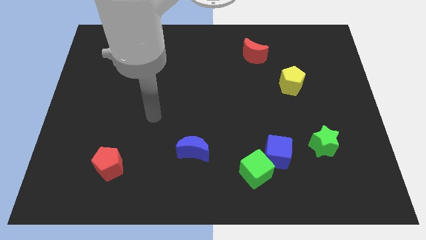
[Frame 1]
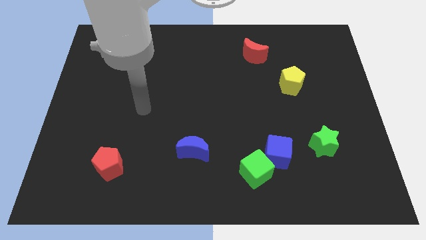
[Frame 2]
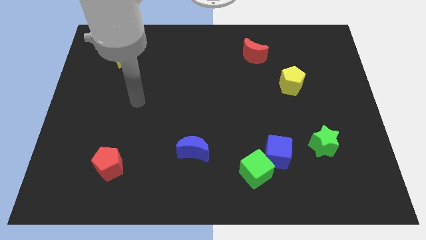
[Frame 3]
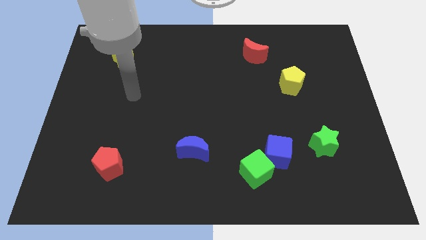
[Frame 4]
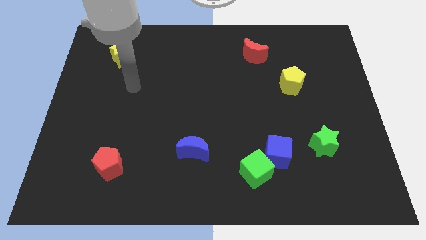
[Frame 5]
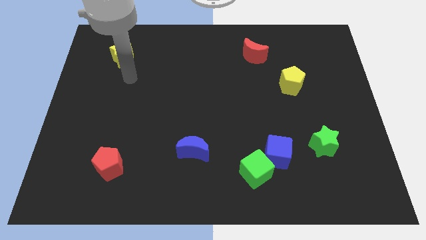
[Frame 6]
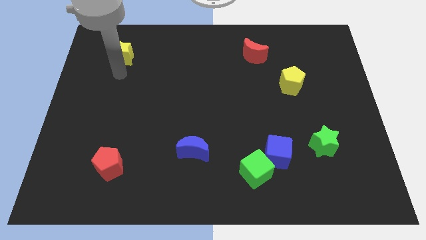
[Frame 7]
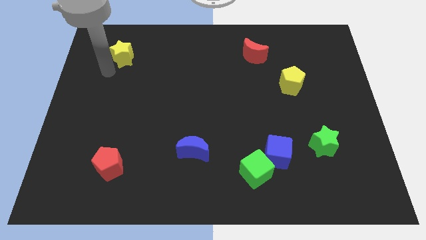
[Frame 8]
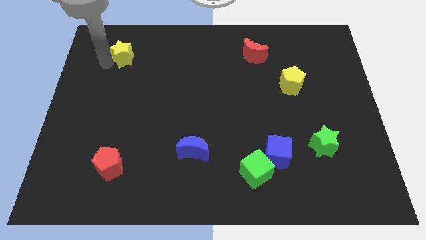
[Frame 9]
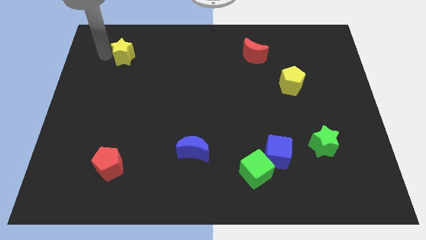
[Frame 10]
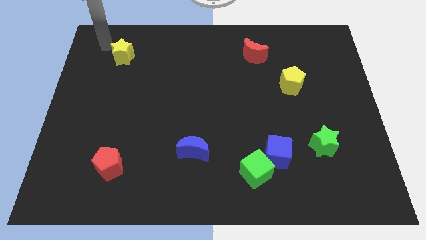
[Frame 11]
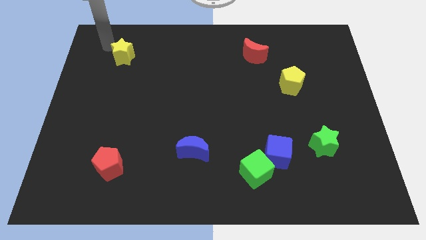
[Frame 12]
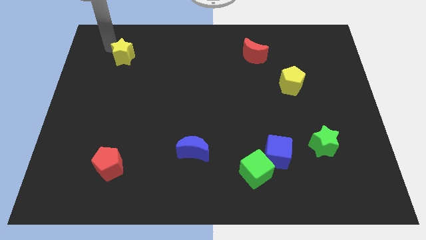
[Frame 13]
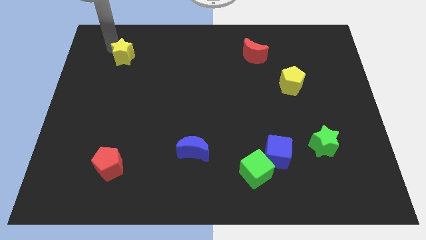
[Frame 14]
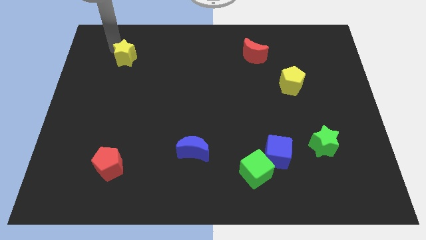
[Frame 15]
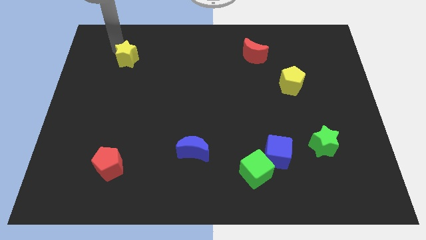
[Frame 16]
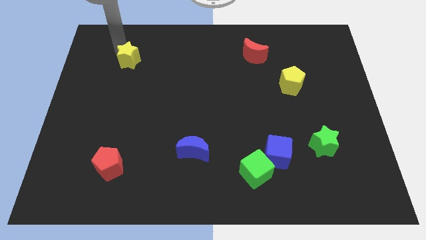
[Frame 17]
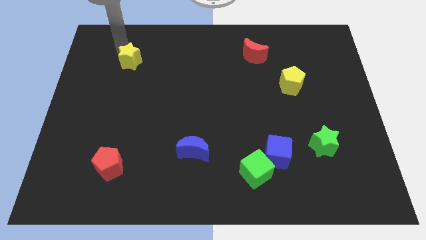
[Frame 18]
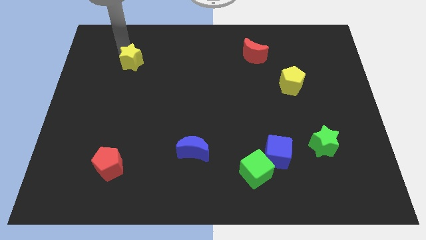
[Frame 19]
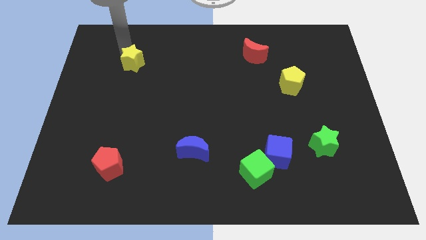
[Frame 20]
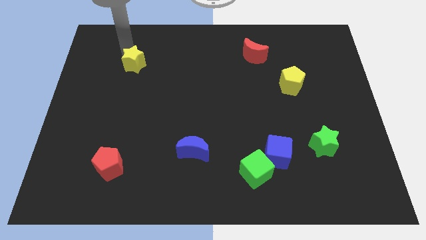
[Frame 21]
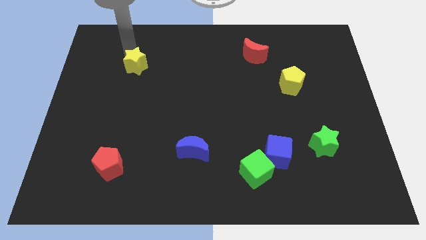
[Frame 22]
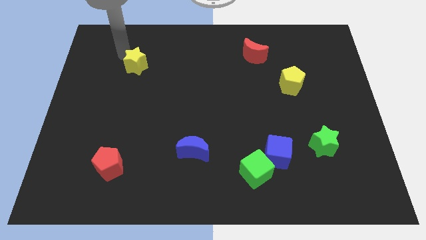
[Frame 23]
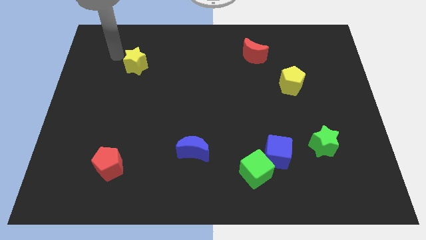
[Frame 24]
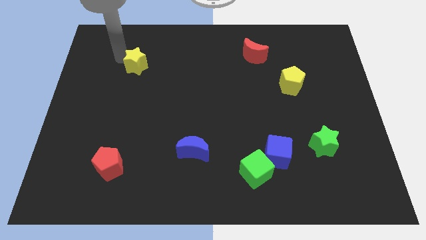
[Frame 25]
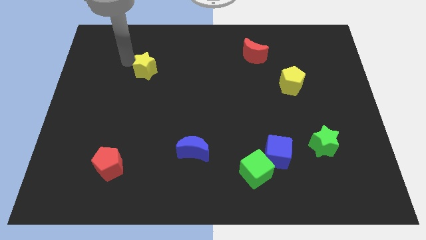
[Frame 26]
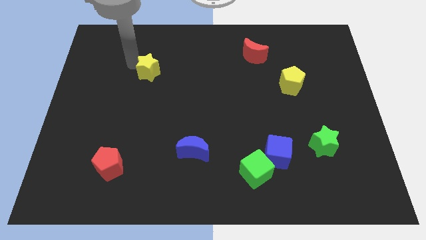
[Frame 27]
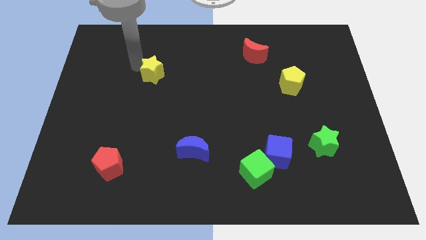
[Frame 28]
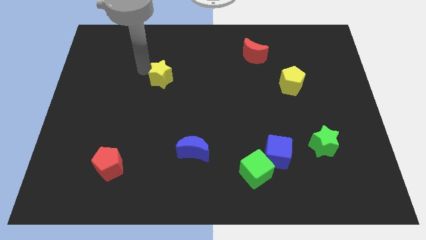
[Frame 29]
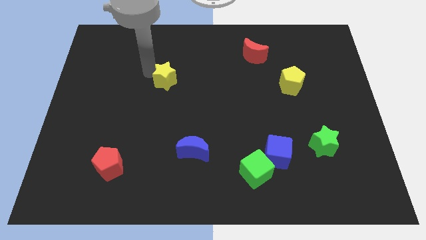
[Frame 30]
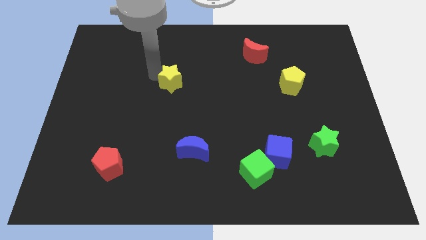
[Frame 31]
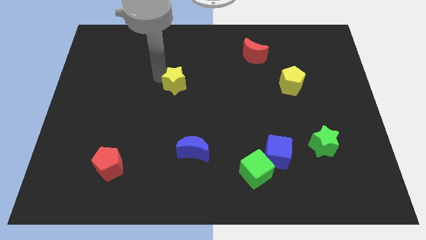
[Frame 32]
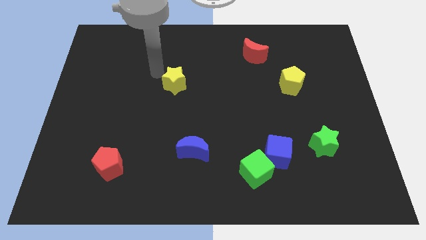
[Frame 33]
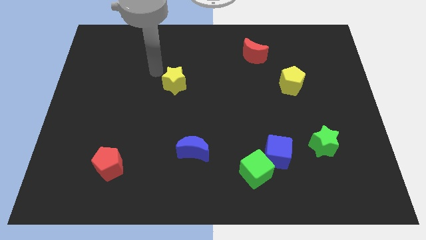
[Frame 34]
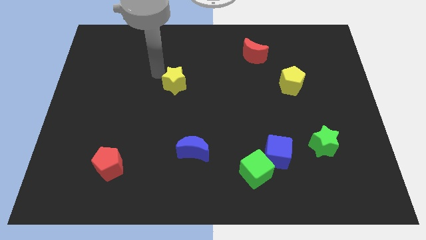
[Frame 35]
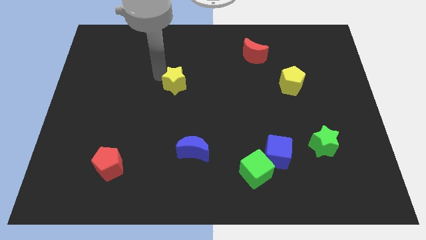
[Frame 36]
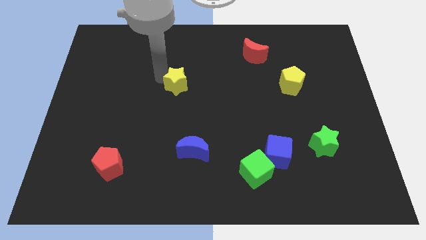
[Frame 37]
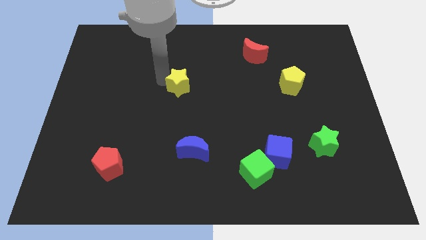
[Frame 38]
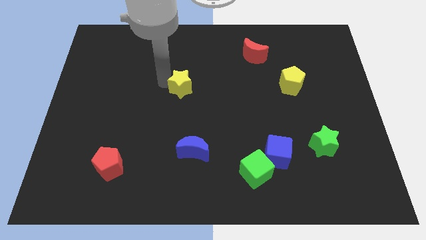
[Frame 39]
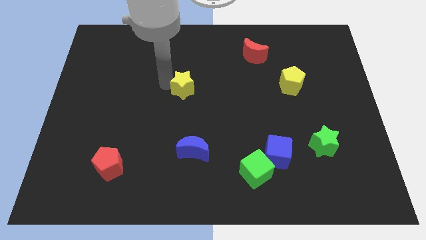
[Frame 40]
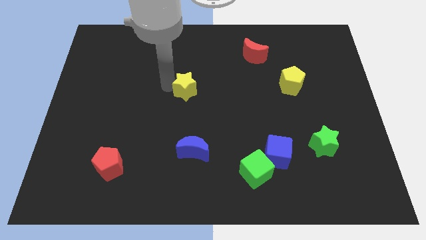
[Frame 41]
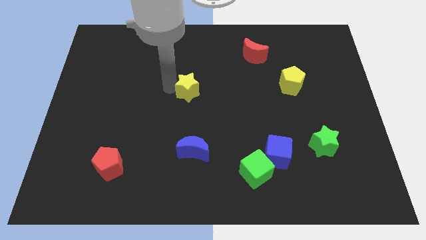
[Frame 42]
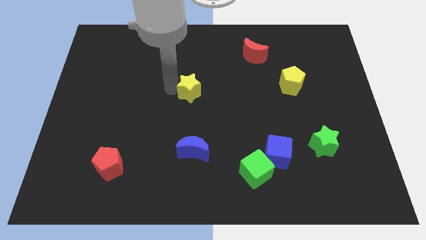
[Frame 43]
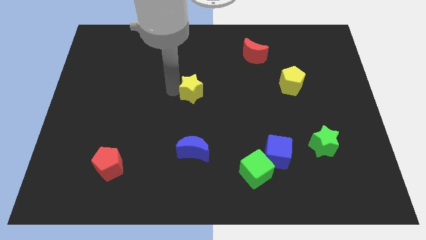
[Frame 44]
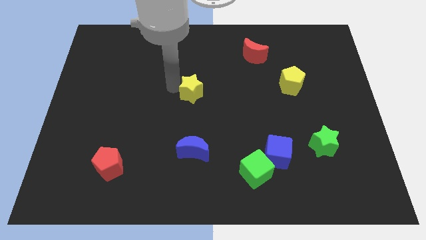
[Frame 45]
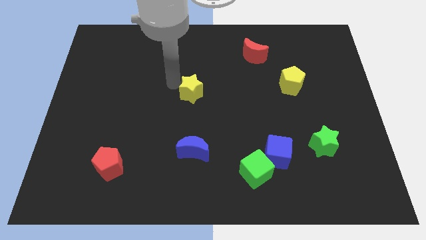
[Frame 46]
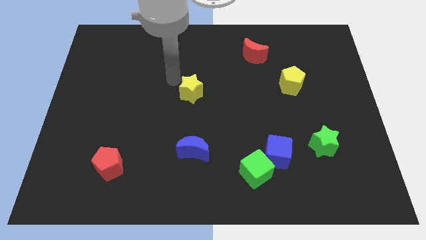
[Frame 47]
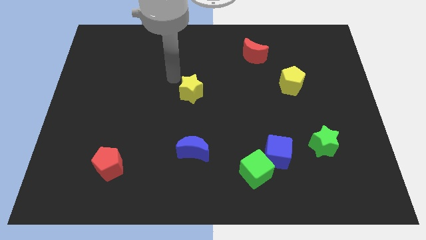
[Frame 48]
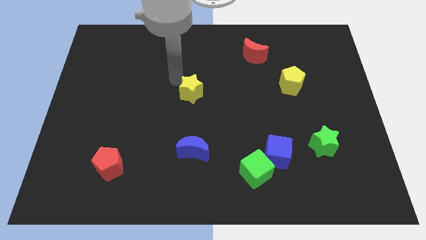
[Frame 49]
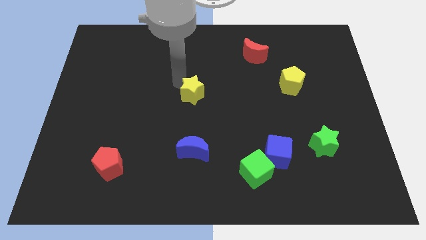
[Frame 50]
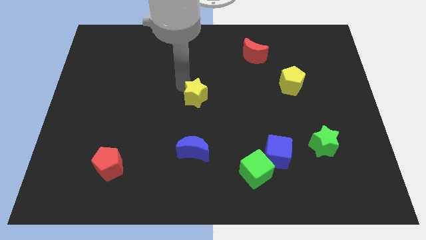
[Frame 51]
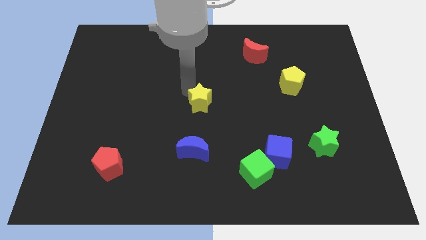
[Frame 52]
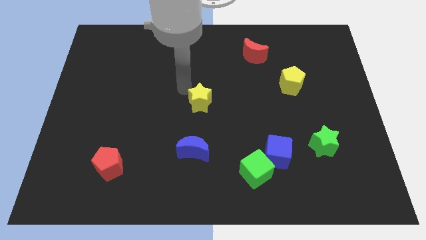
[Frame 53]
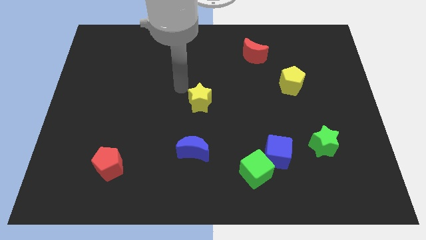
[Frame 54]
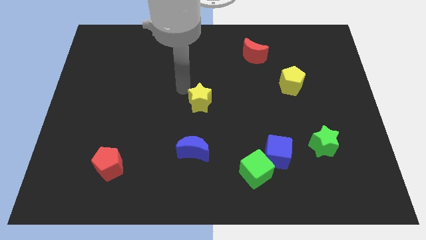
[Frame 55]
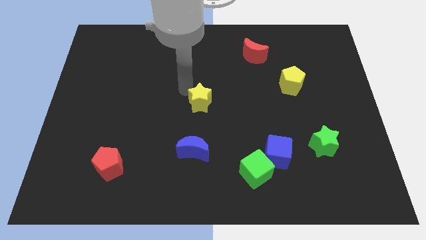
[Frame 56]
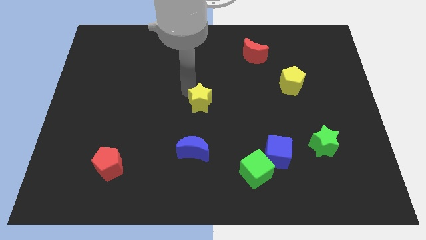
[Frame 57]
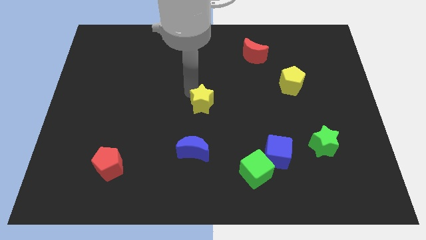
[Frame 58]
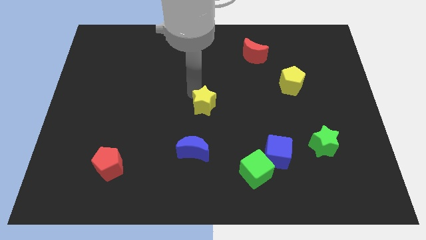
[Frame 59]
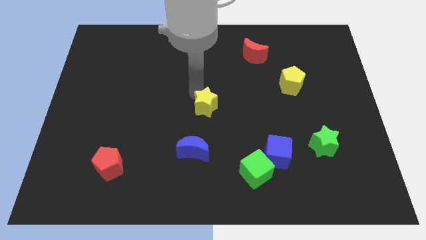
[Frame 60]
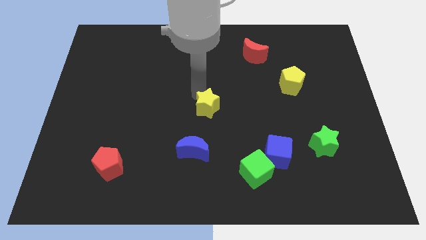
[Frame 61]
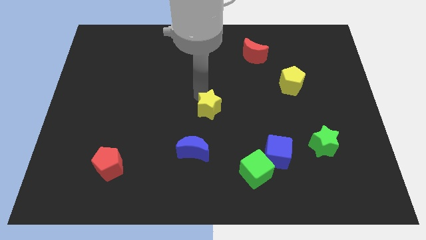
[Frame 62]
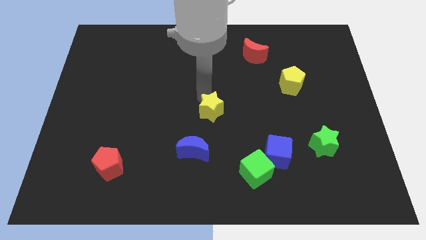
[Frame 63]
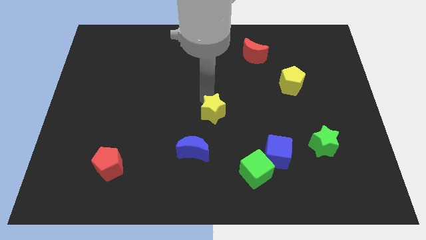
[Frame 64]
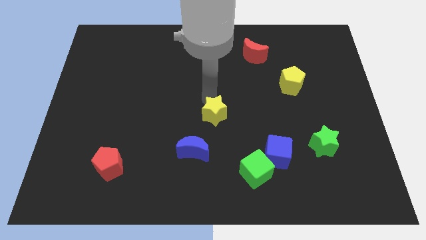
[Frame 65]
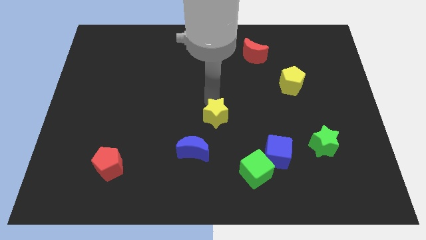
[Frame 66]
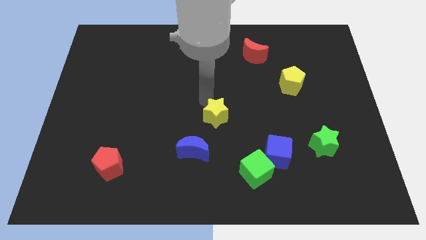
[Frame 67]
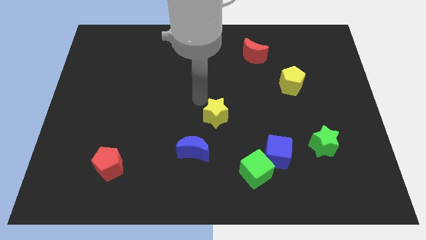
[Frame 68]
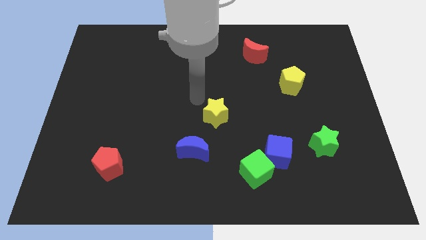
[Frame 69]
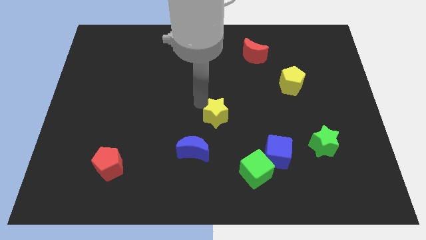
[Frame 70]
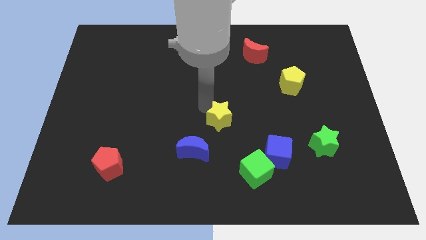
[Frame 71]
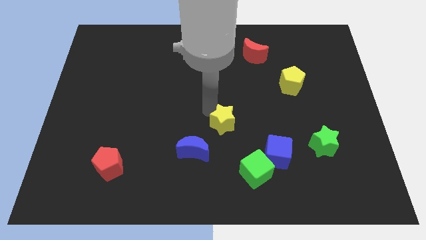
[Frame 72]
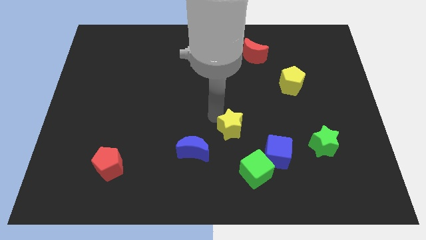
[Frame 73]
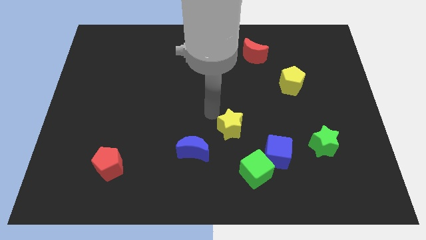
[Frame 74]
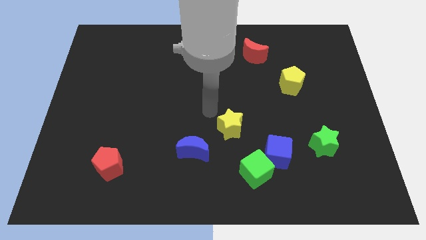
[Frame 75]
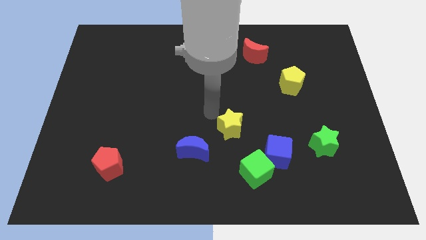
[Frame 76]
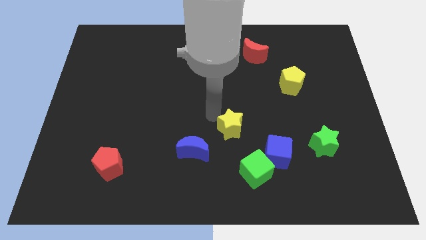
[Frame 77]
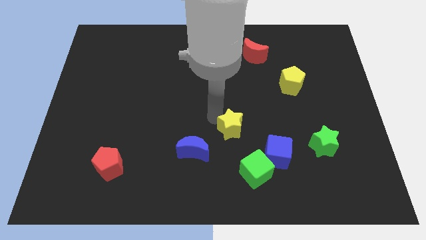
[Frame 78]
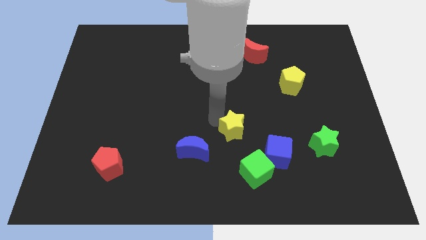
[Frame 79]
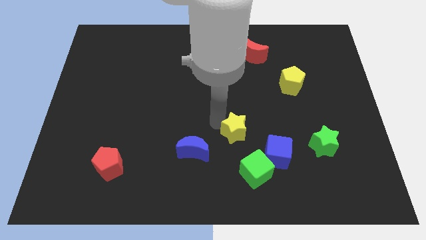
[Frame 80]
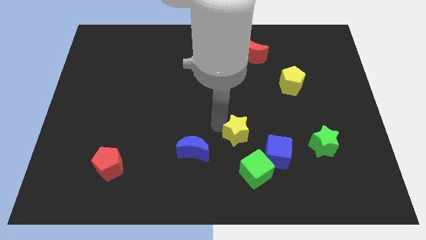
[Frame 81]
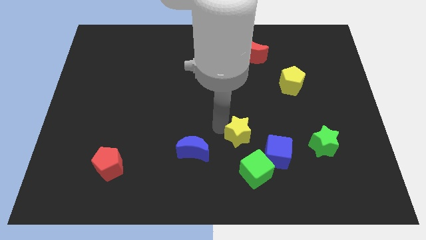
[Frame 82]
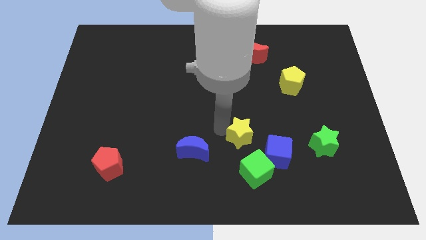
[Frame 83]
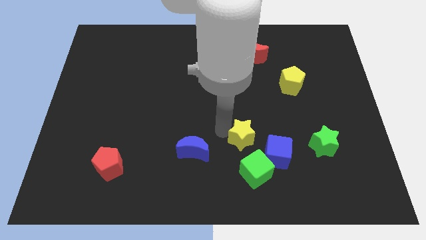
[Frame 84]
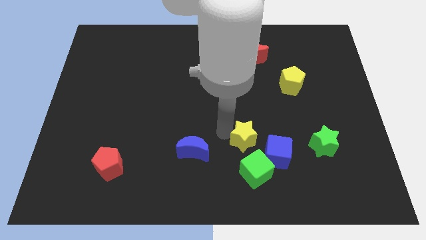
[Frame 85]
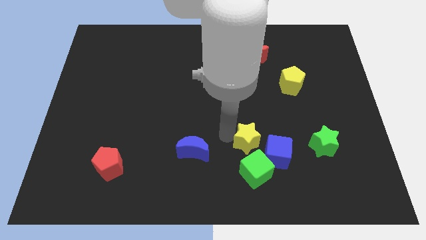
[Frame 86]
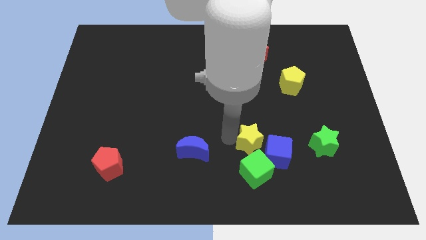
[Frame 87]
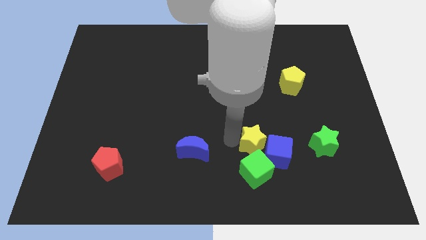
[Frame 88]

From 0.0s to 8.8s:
slide the yellow star close to the blue cube
